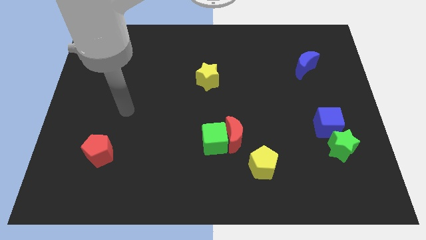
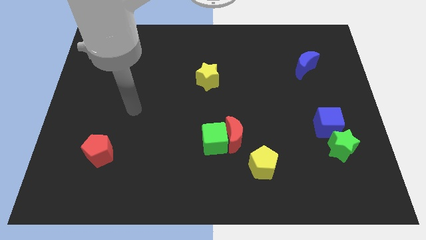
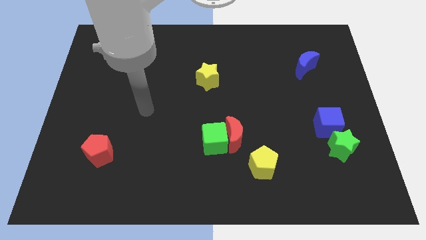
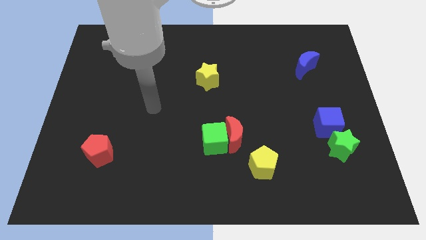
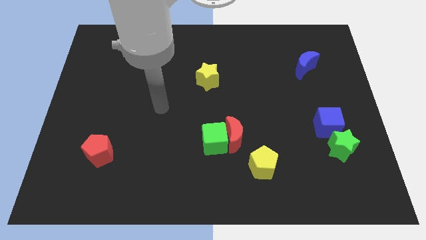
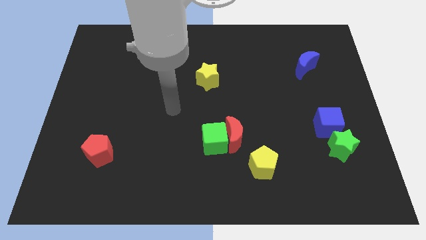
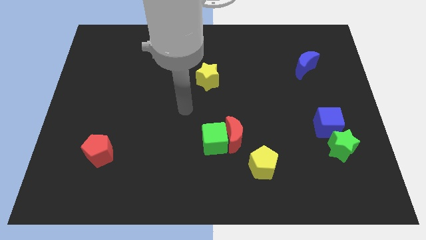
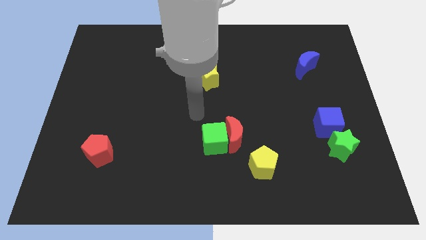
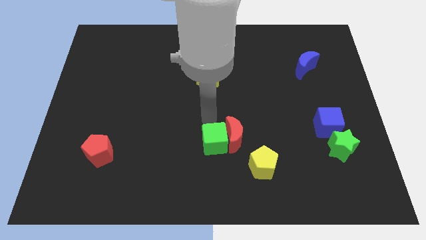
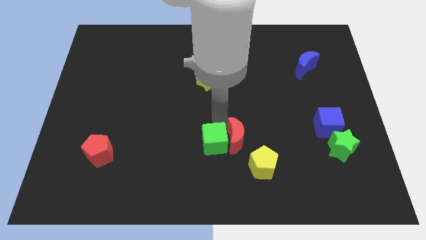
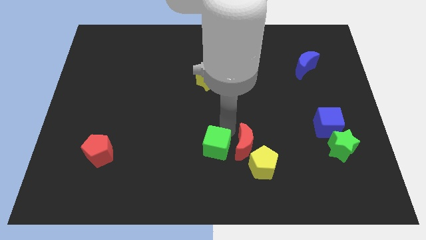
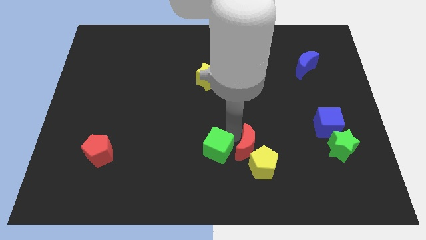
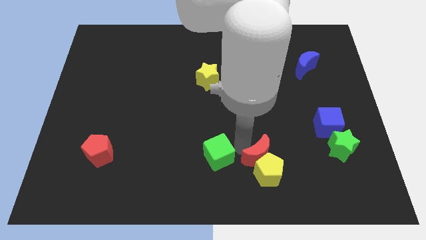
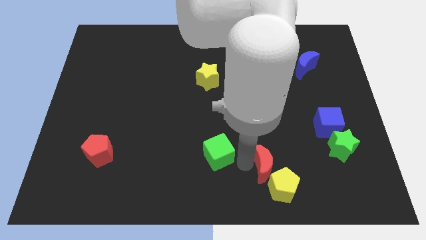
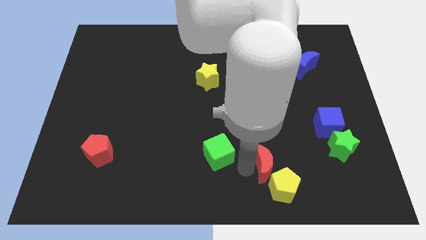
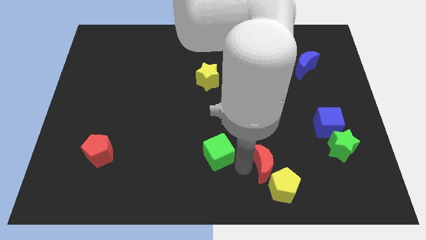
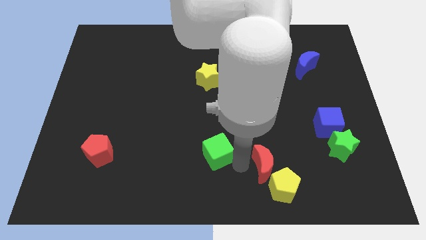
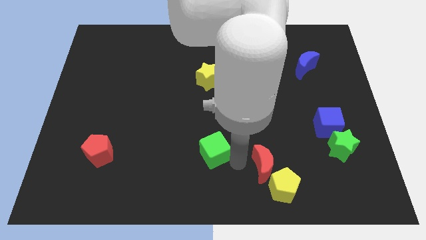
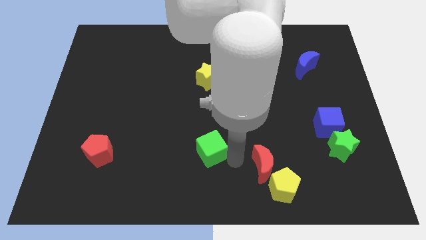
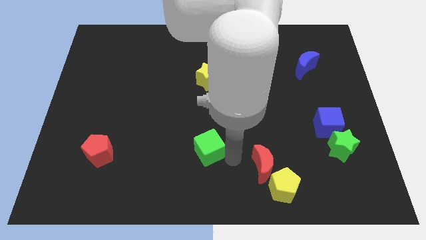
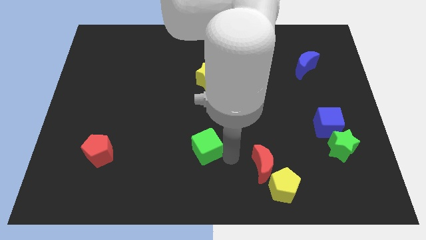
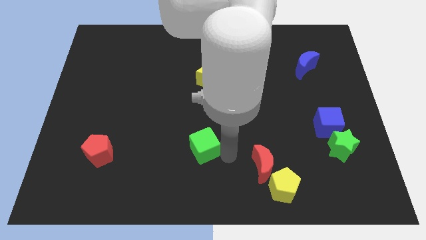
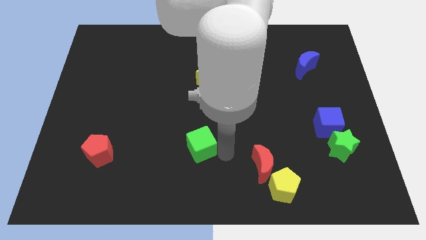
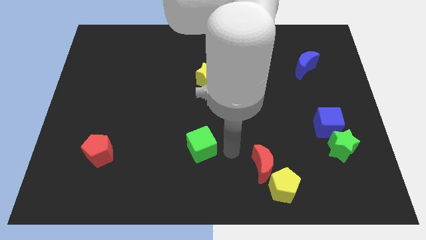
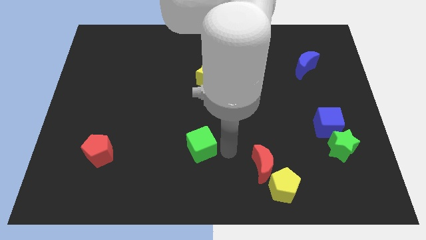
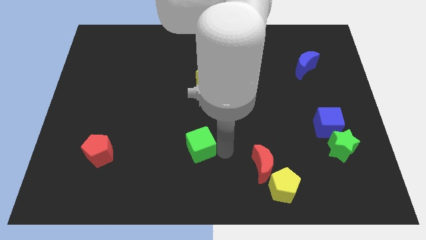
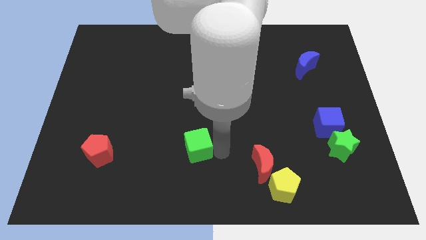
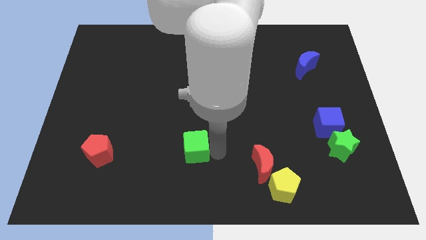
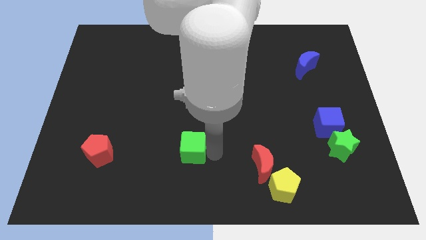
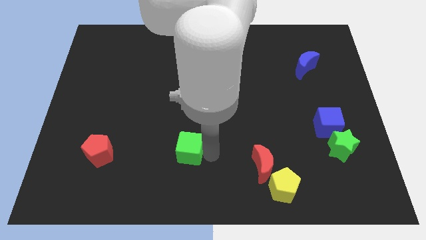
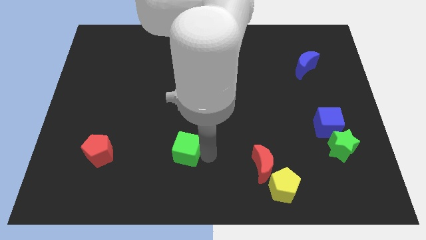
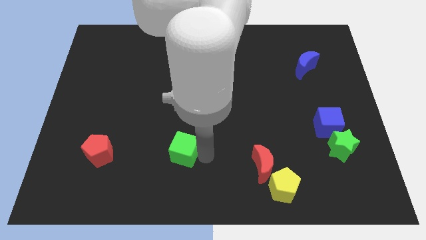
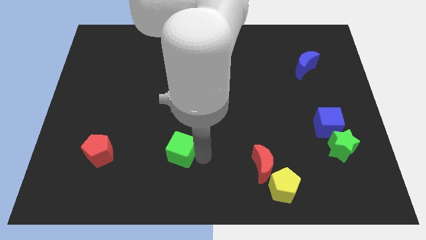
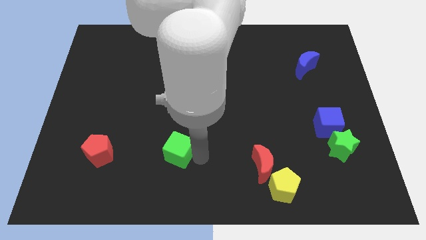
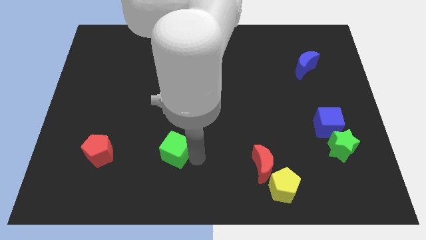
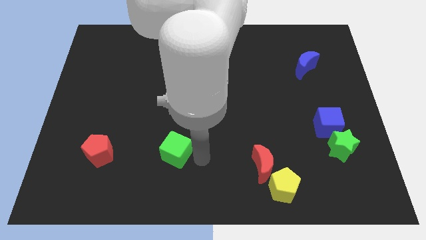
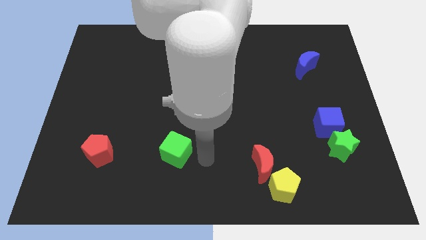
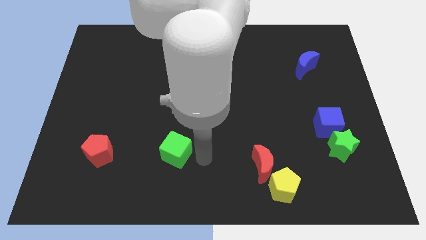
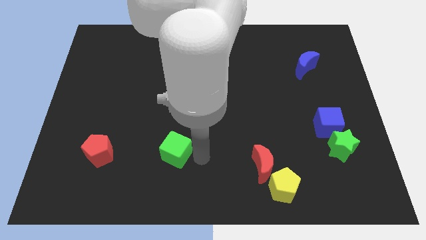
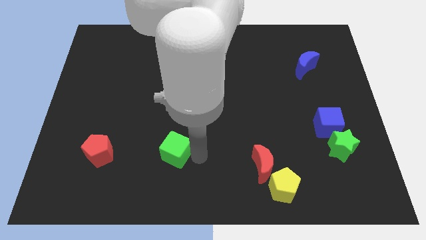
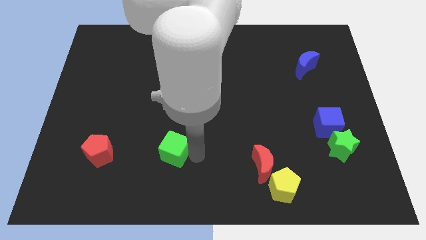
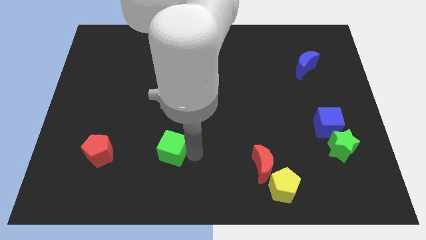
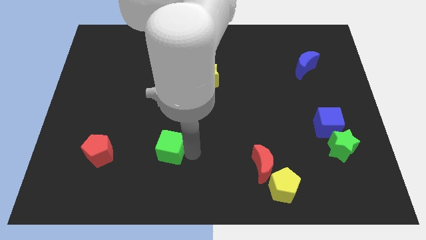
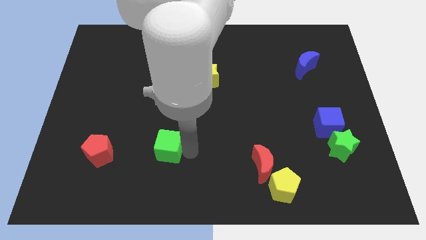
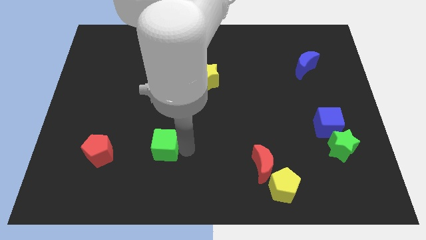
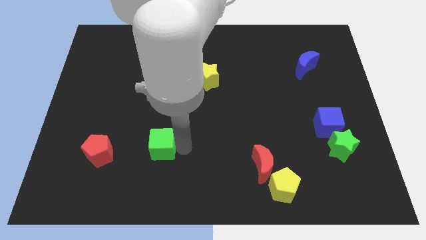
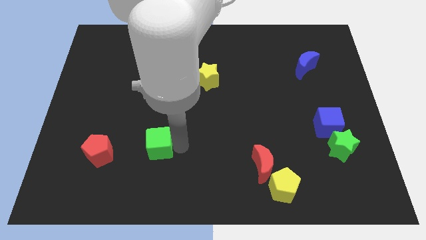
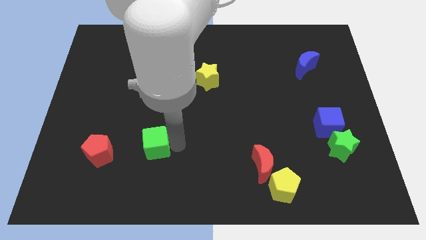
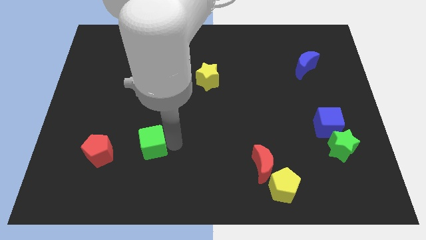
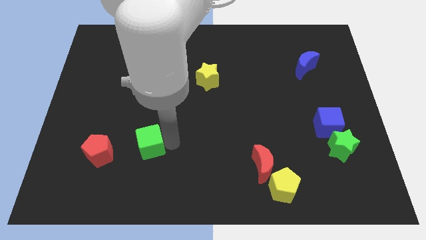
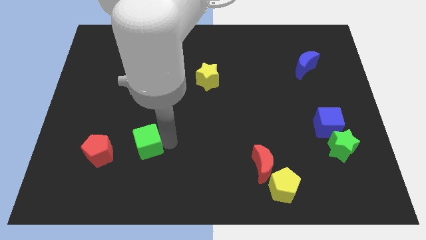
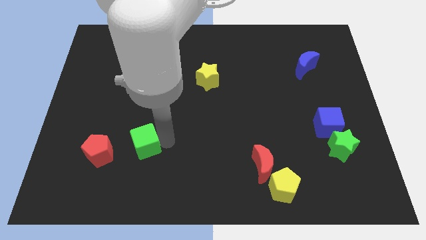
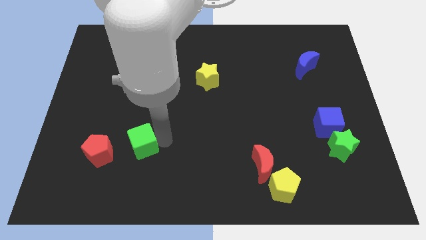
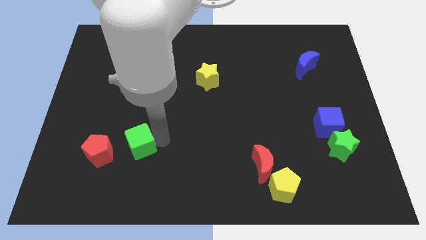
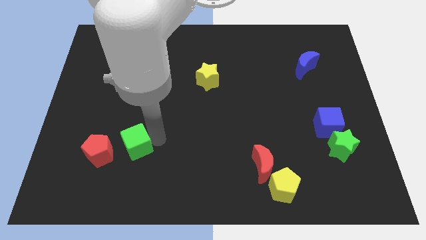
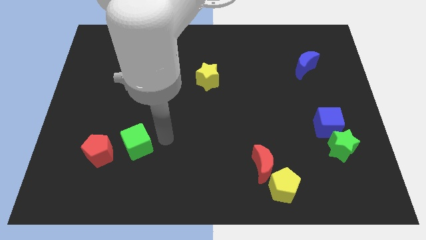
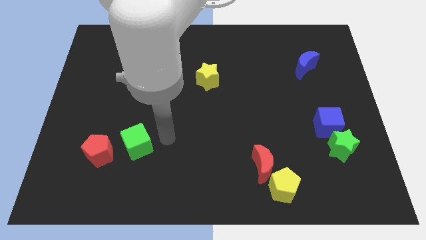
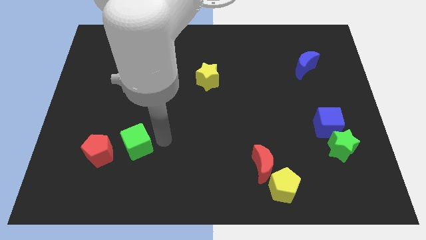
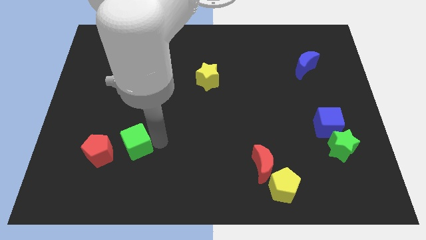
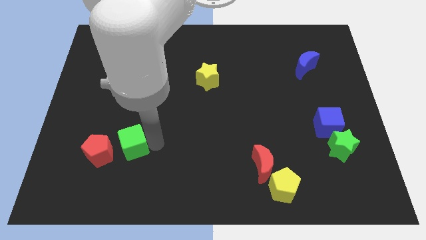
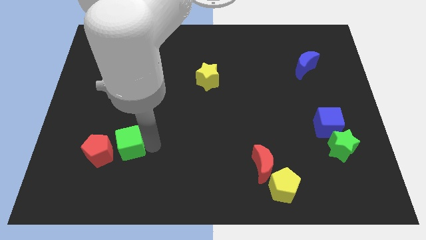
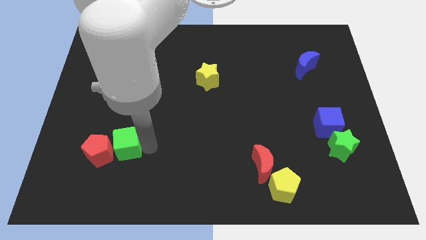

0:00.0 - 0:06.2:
slide the green cube close to the red pentagon

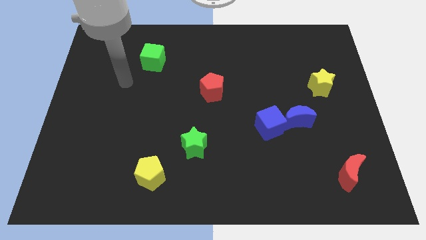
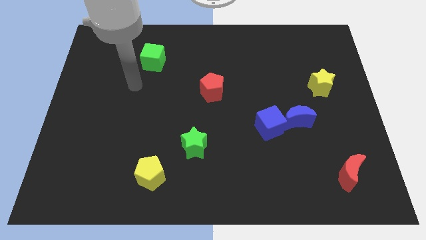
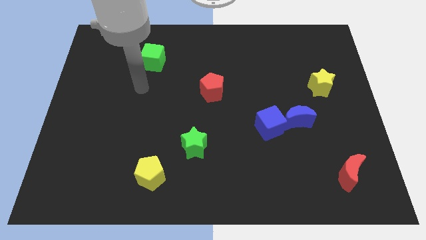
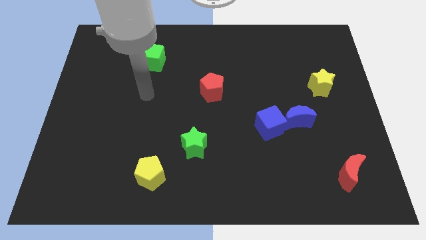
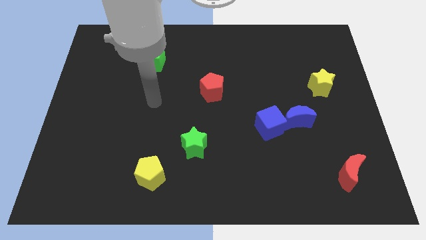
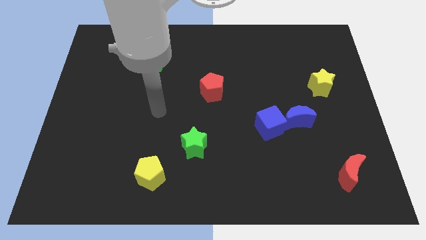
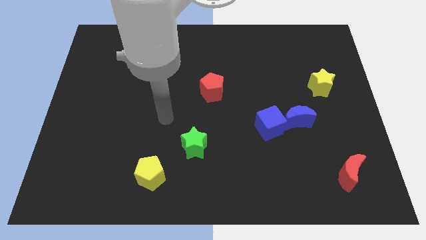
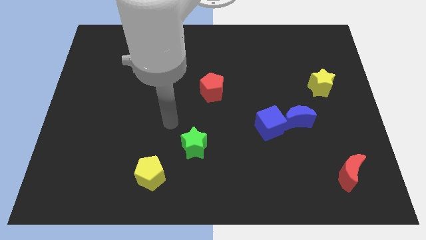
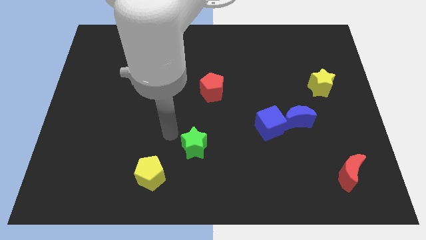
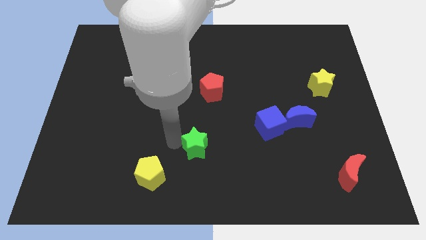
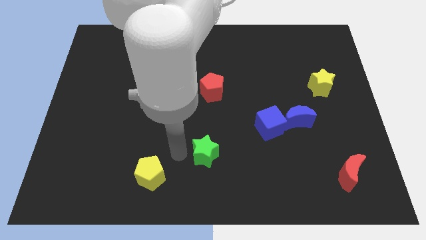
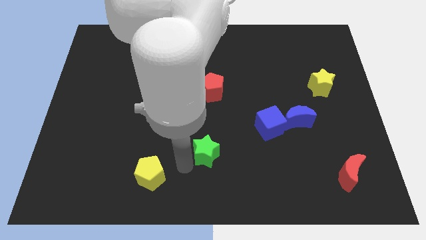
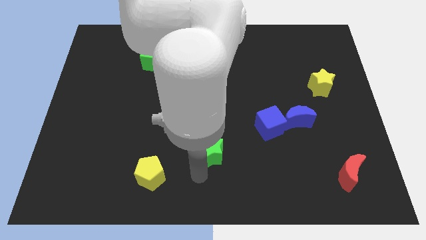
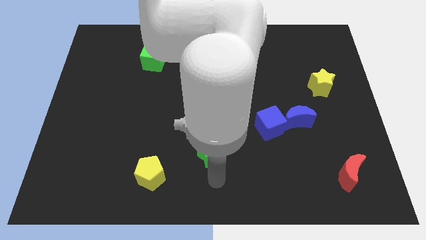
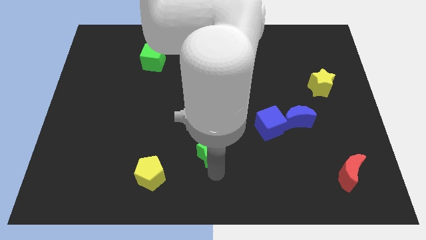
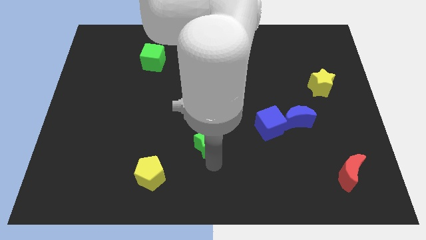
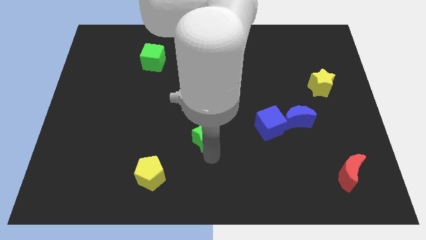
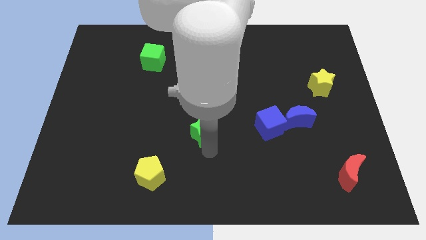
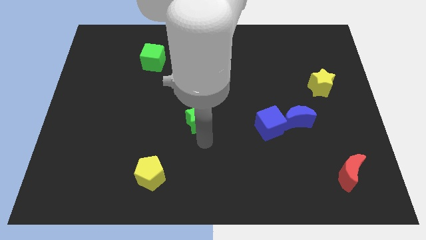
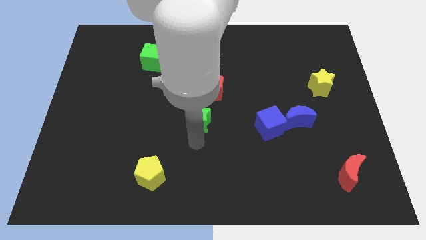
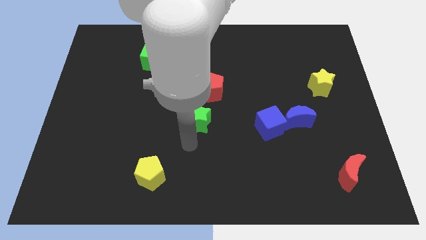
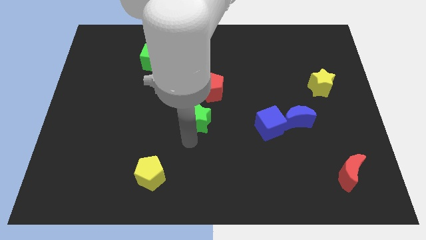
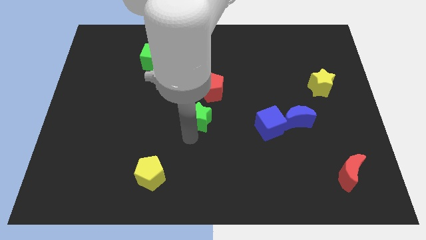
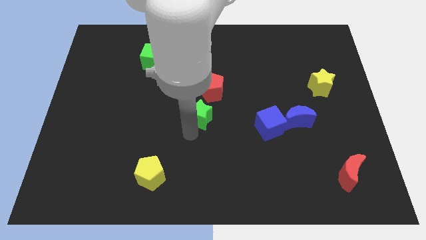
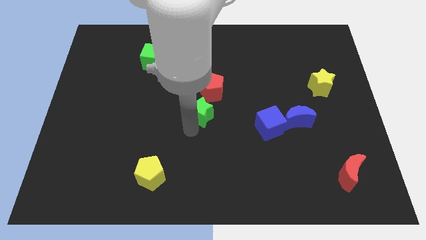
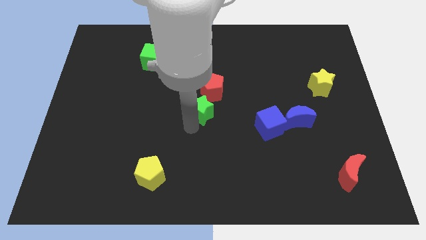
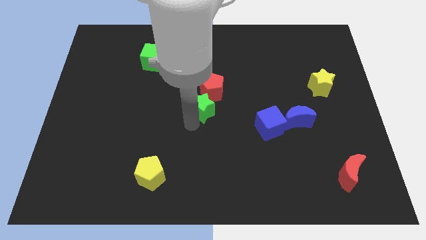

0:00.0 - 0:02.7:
put the green star close to the red pentagon

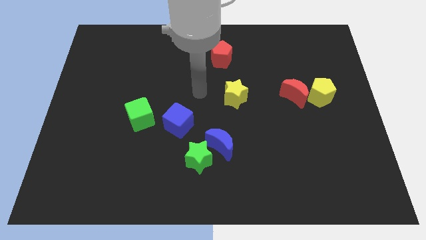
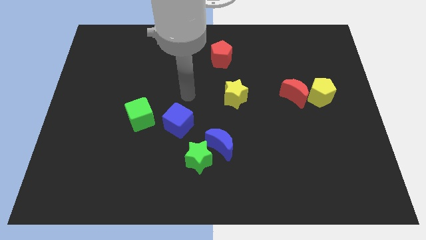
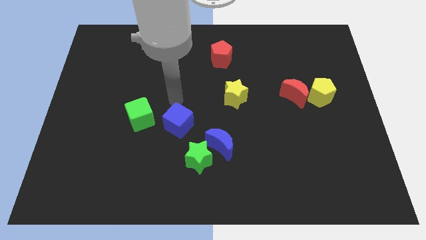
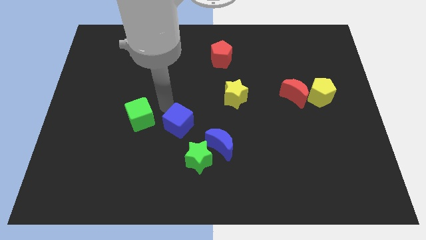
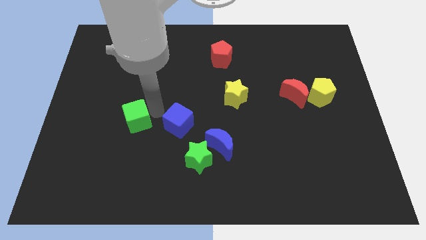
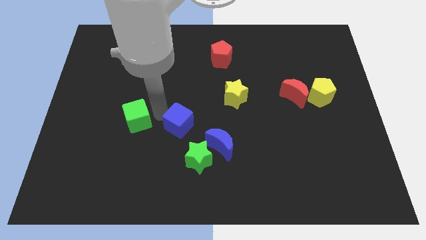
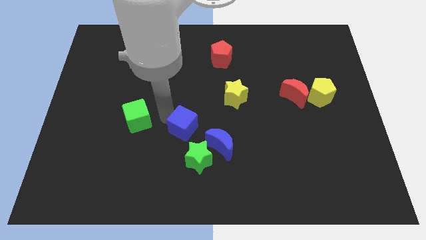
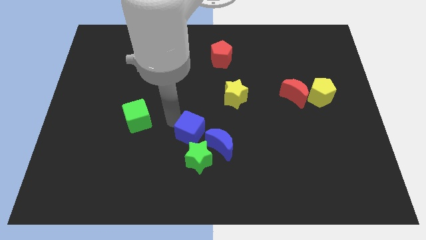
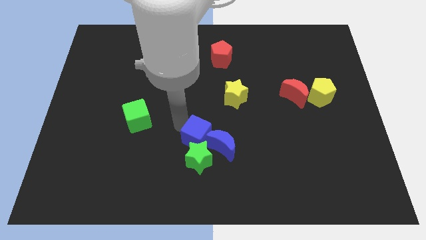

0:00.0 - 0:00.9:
slide the blue cube towards the blue moon
